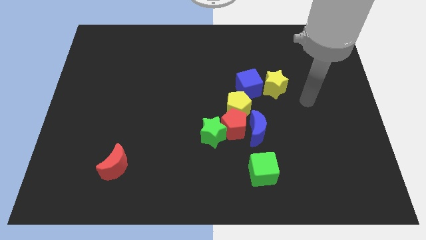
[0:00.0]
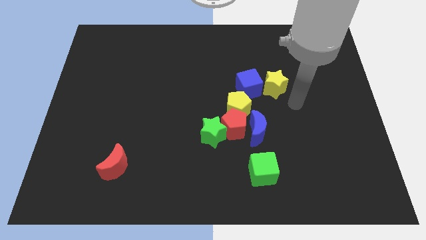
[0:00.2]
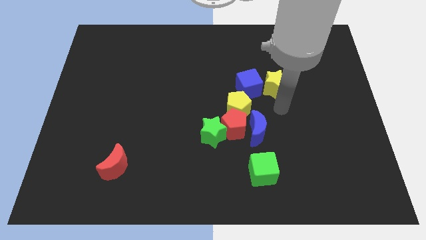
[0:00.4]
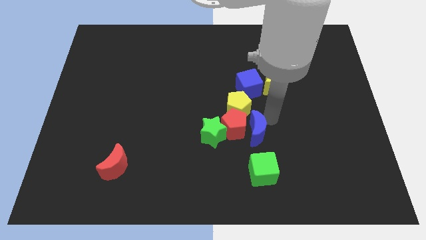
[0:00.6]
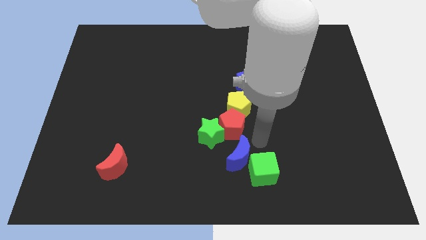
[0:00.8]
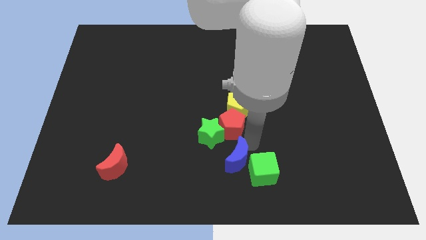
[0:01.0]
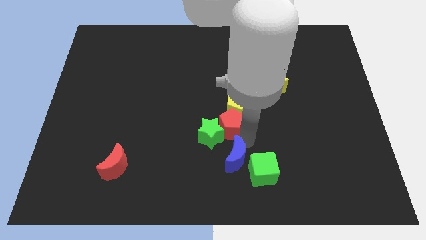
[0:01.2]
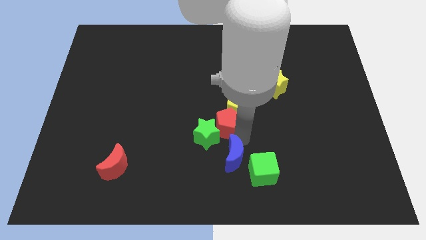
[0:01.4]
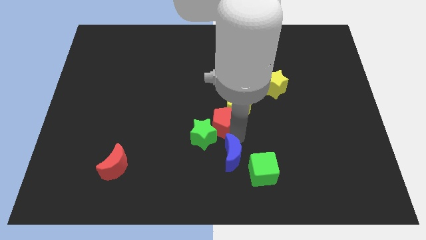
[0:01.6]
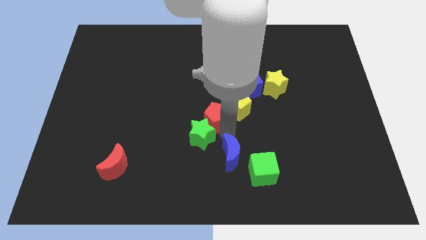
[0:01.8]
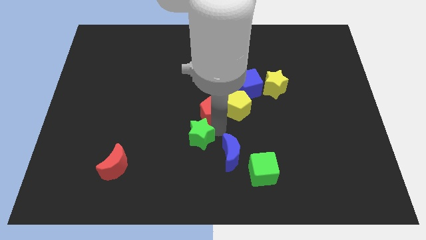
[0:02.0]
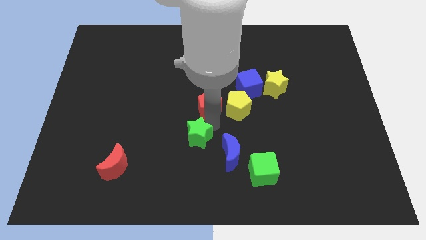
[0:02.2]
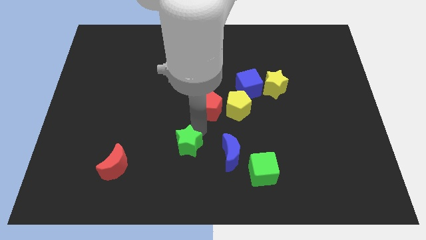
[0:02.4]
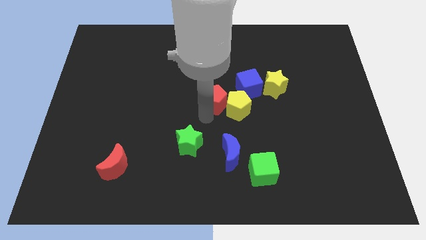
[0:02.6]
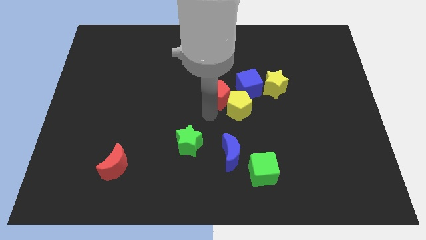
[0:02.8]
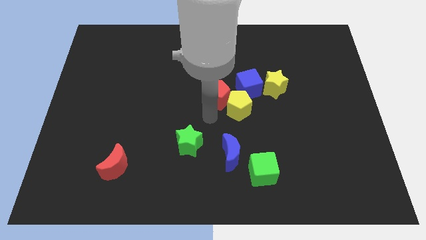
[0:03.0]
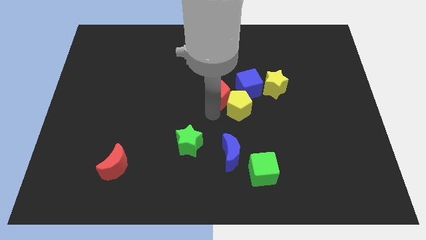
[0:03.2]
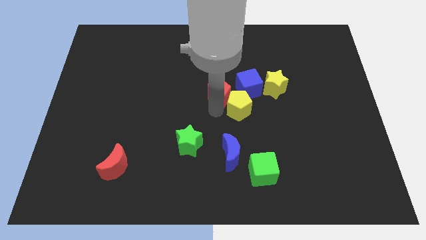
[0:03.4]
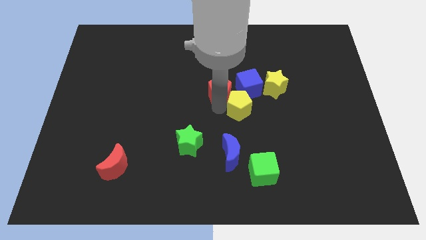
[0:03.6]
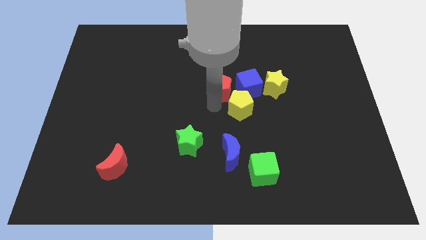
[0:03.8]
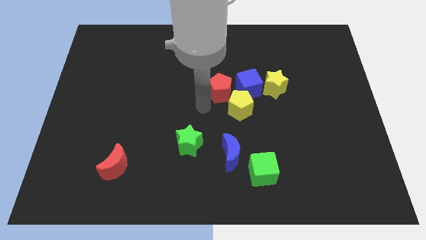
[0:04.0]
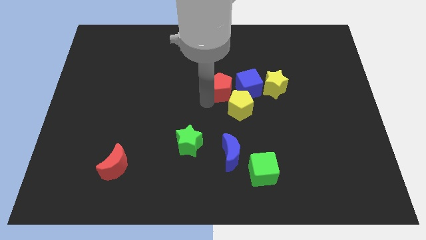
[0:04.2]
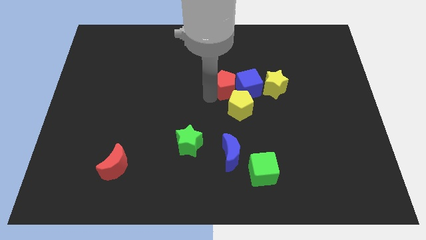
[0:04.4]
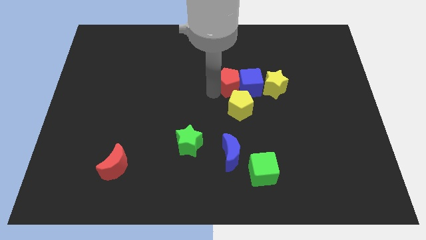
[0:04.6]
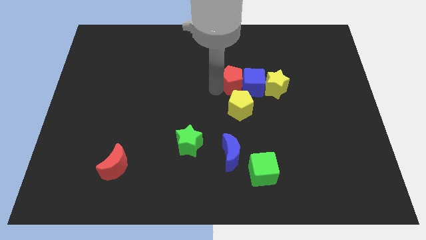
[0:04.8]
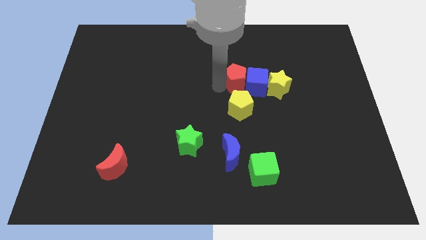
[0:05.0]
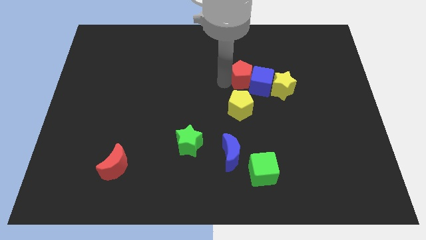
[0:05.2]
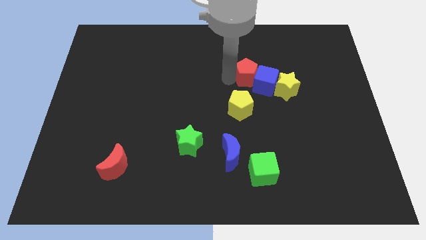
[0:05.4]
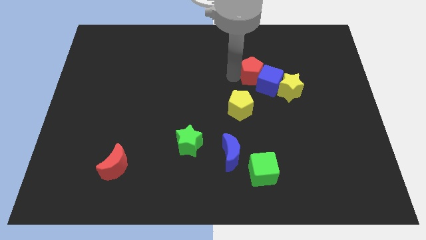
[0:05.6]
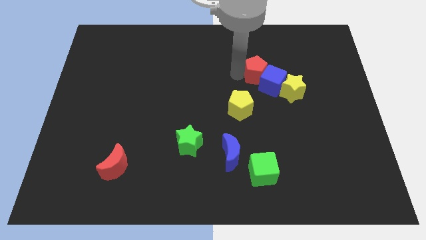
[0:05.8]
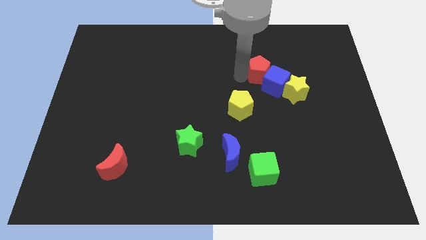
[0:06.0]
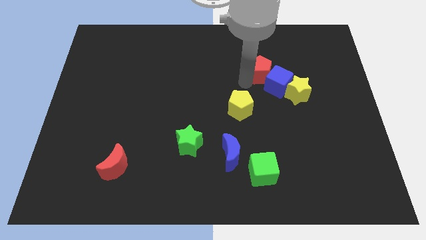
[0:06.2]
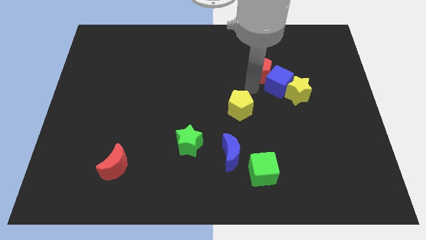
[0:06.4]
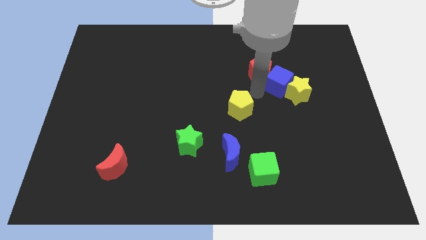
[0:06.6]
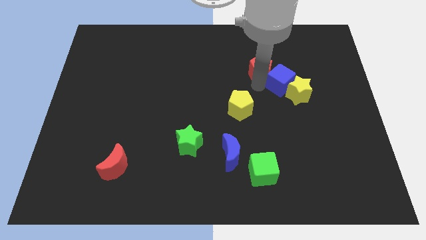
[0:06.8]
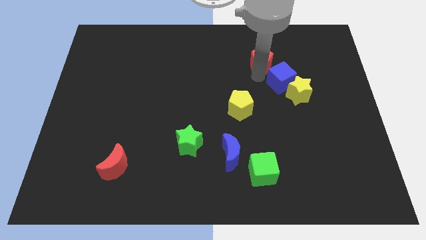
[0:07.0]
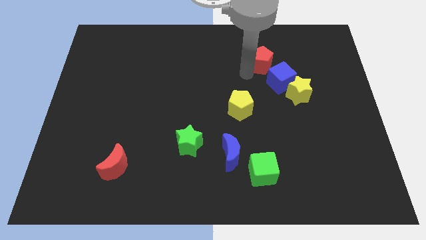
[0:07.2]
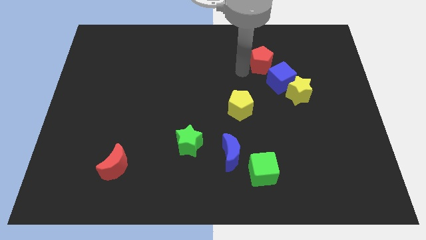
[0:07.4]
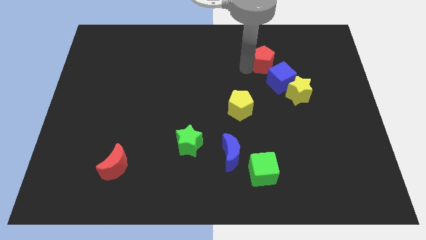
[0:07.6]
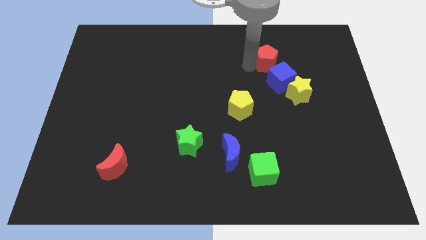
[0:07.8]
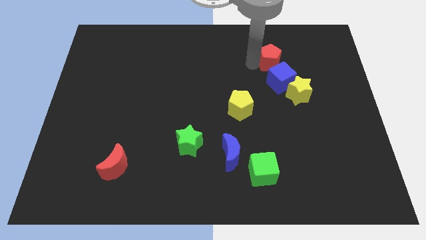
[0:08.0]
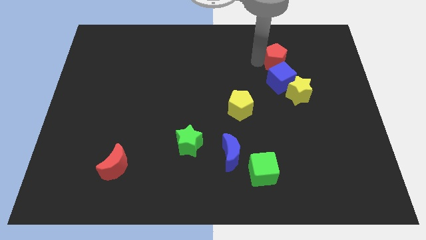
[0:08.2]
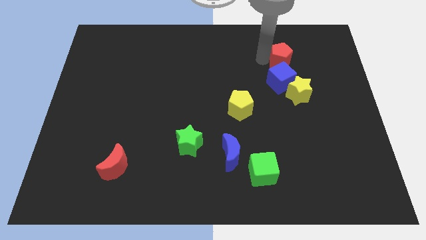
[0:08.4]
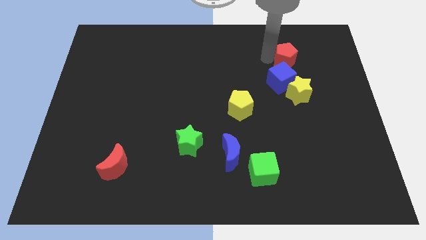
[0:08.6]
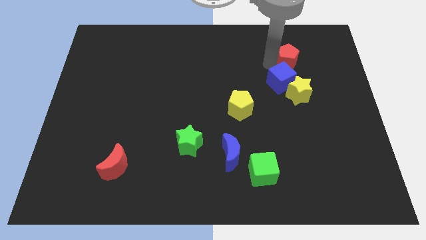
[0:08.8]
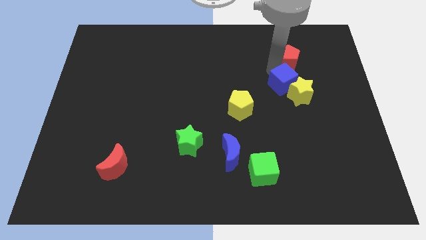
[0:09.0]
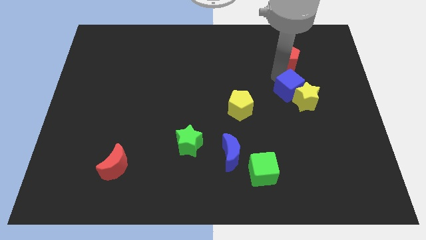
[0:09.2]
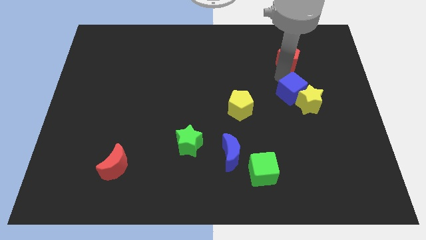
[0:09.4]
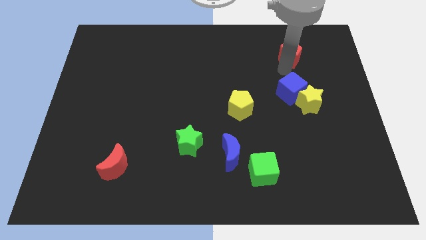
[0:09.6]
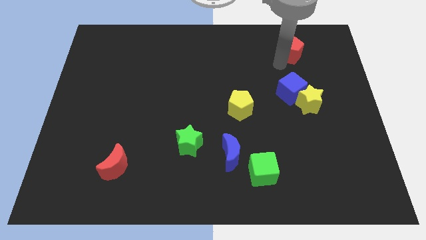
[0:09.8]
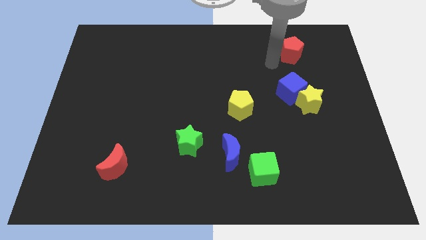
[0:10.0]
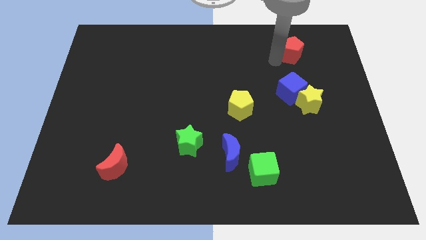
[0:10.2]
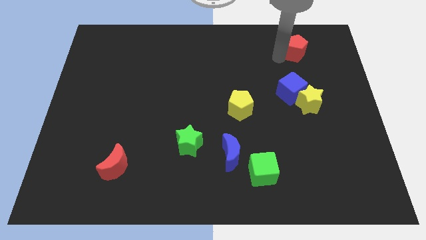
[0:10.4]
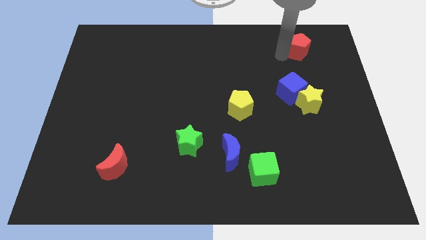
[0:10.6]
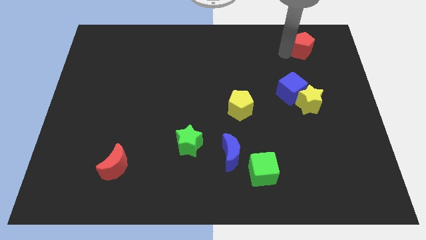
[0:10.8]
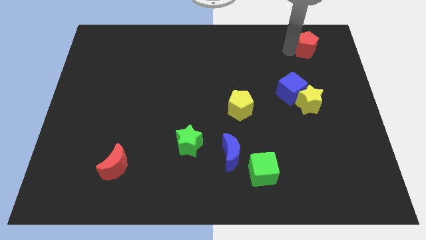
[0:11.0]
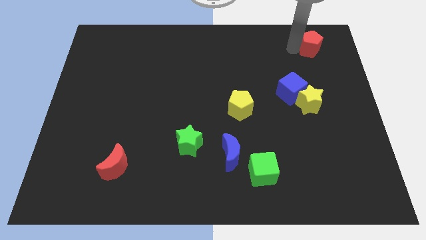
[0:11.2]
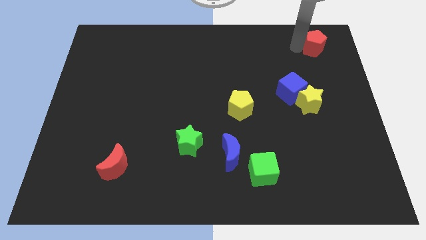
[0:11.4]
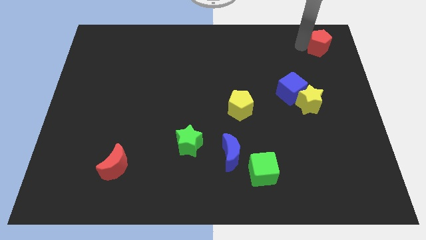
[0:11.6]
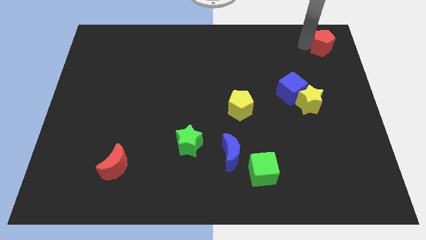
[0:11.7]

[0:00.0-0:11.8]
slide the red pentagon to the top right of the board

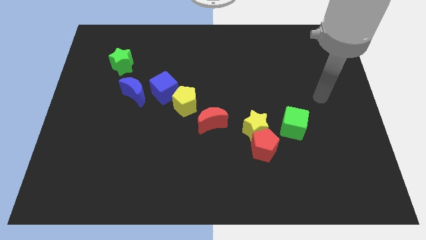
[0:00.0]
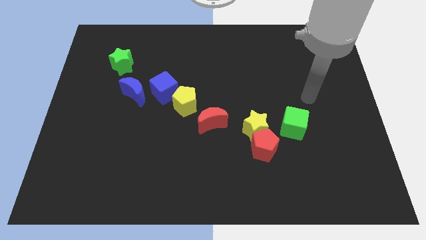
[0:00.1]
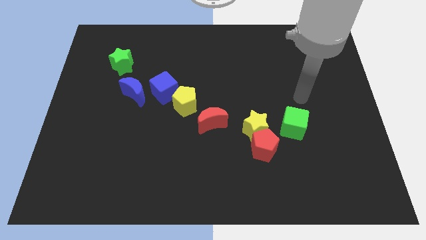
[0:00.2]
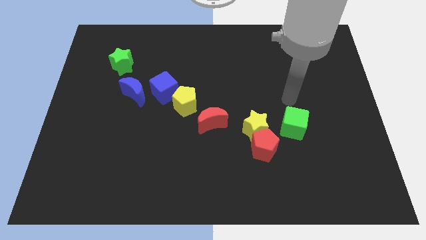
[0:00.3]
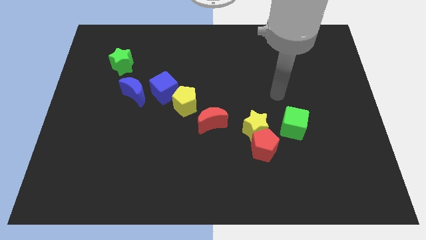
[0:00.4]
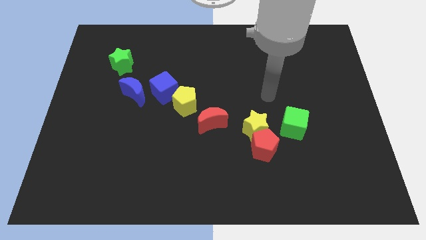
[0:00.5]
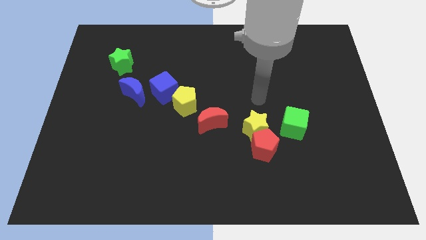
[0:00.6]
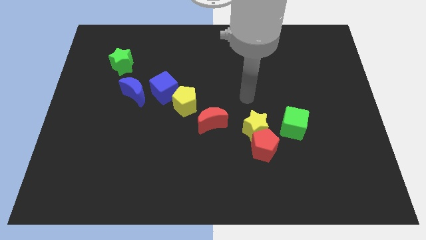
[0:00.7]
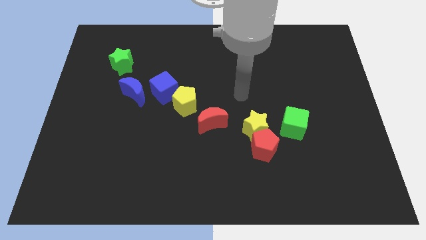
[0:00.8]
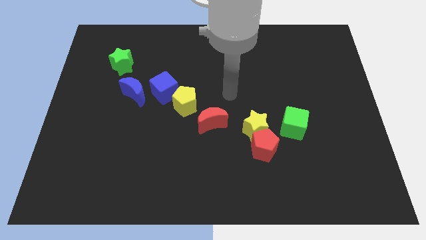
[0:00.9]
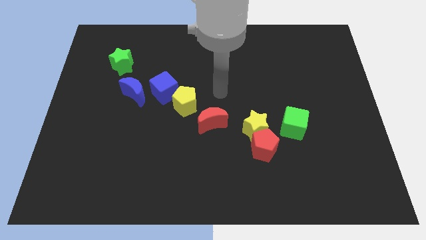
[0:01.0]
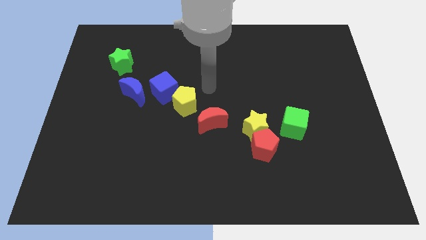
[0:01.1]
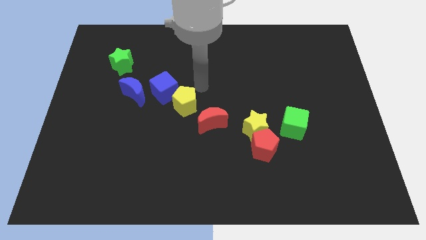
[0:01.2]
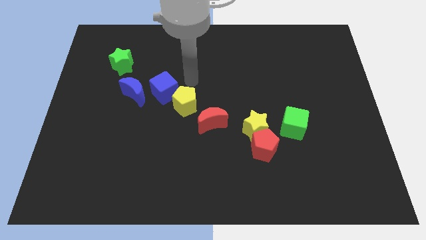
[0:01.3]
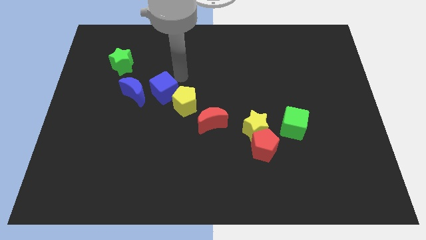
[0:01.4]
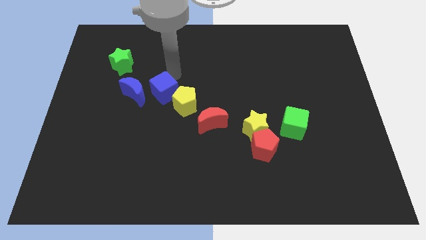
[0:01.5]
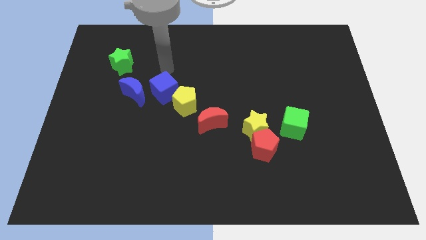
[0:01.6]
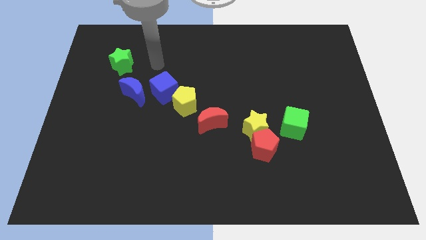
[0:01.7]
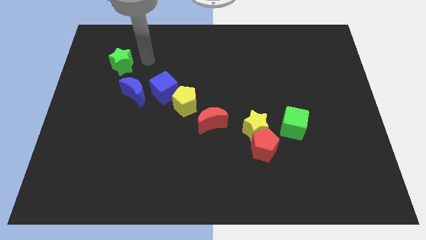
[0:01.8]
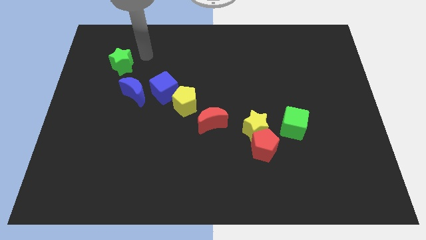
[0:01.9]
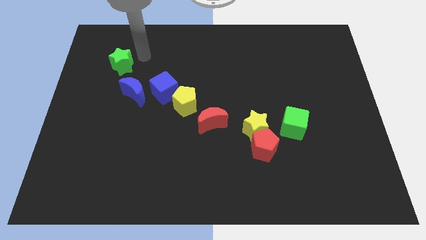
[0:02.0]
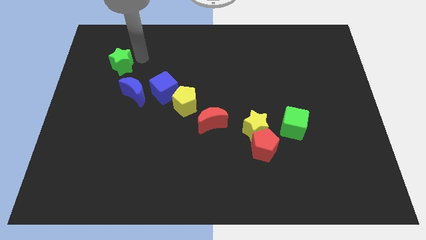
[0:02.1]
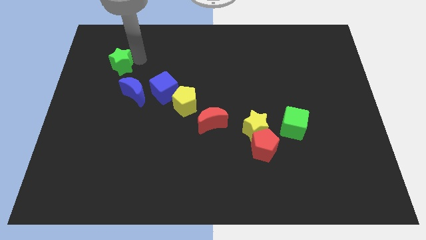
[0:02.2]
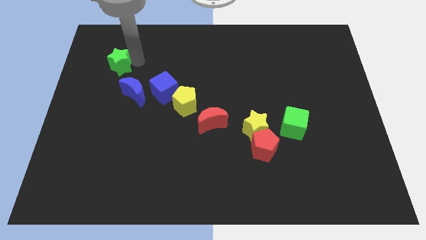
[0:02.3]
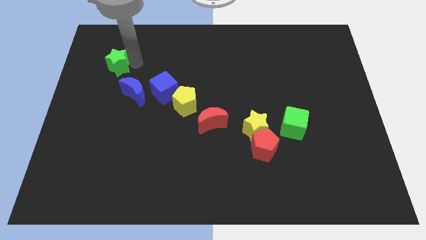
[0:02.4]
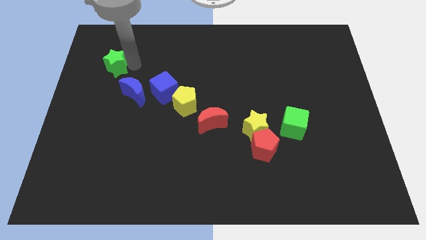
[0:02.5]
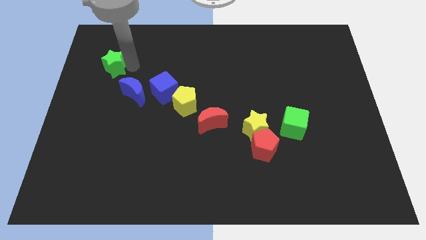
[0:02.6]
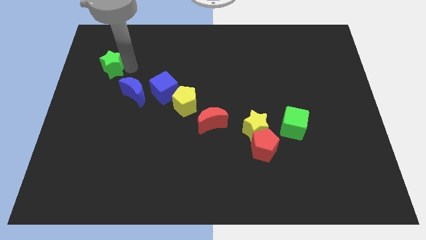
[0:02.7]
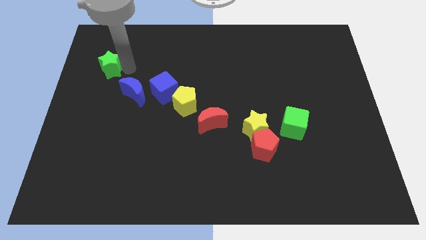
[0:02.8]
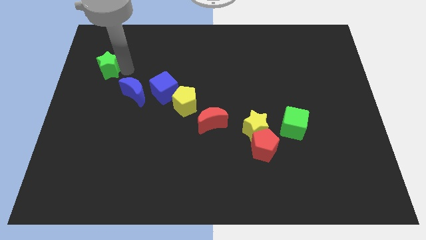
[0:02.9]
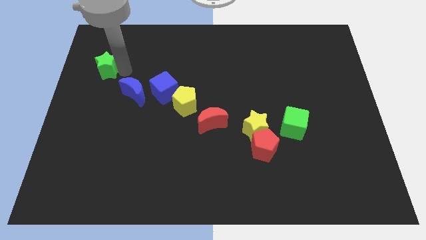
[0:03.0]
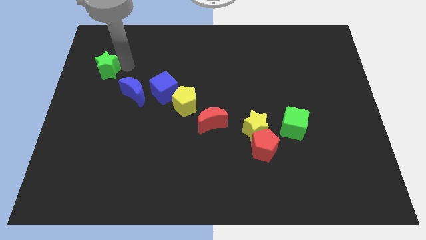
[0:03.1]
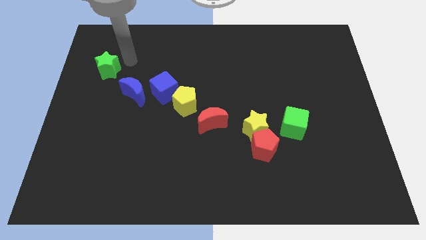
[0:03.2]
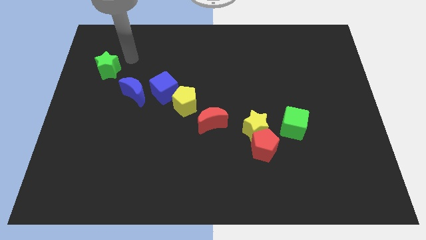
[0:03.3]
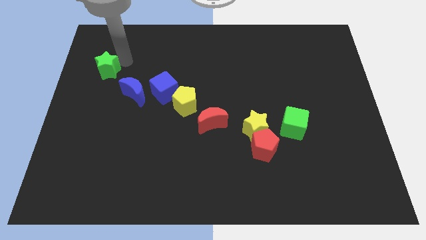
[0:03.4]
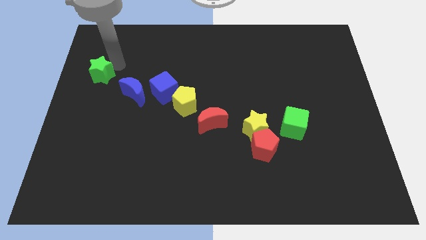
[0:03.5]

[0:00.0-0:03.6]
slide the green star to the left side of the board
